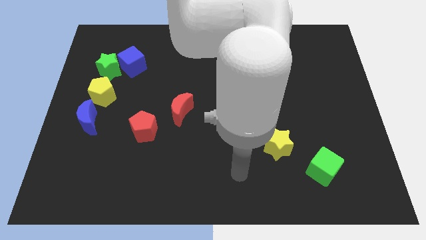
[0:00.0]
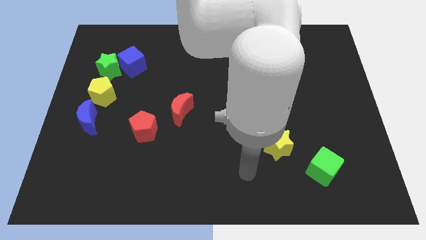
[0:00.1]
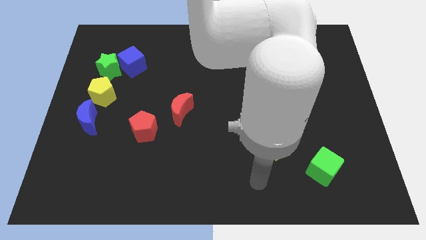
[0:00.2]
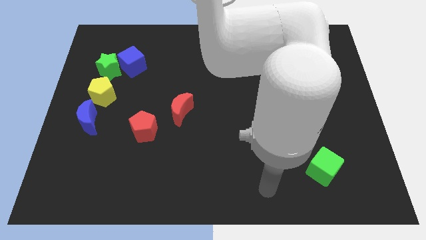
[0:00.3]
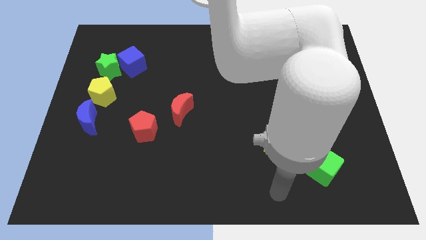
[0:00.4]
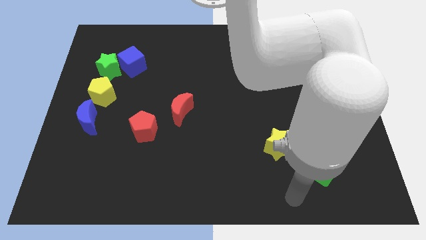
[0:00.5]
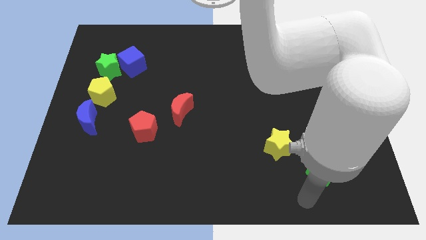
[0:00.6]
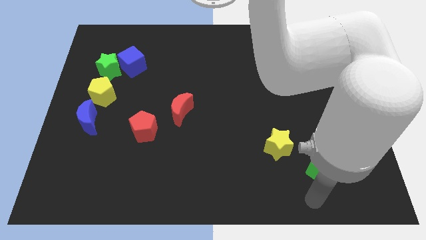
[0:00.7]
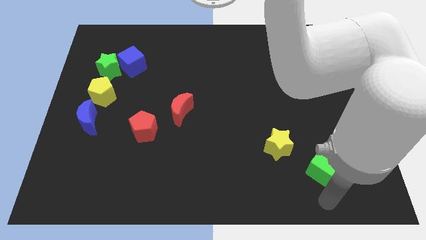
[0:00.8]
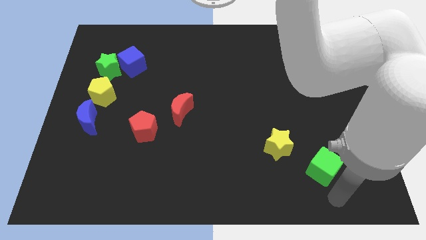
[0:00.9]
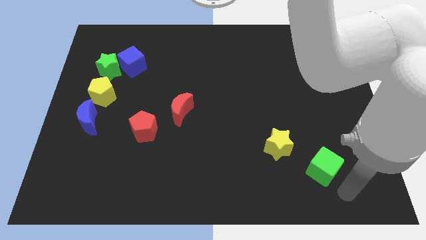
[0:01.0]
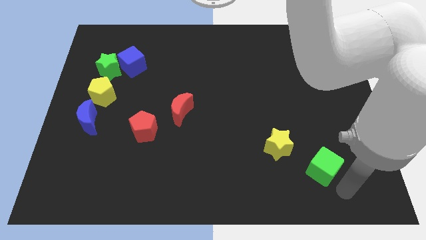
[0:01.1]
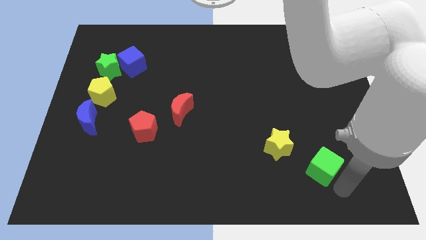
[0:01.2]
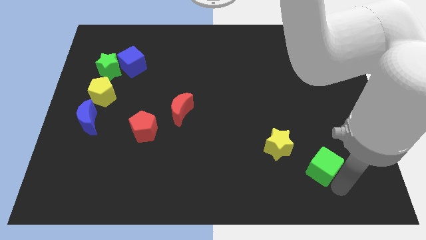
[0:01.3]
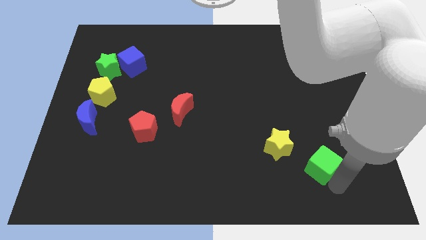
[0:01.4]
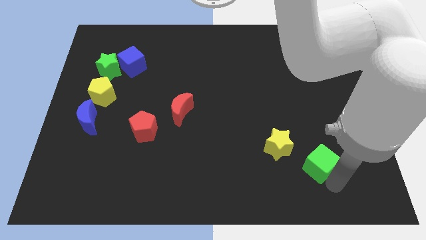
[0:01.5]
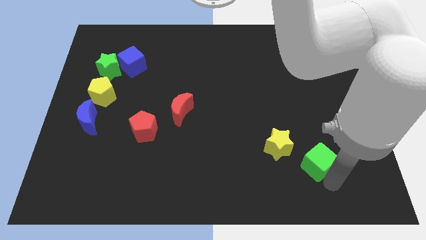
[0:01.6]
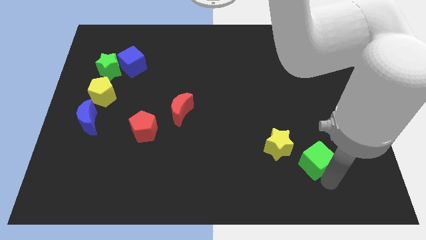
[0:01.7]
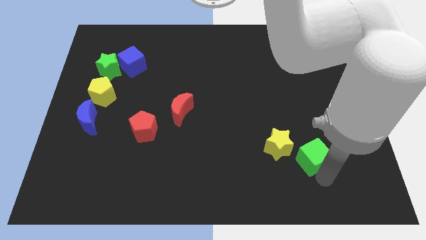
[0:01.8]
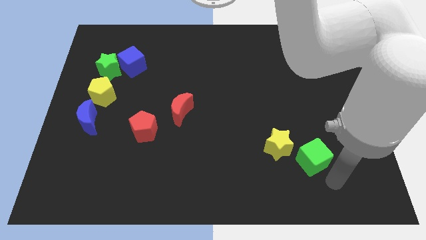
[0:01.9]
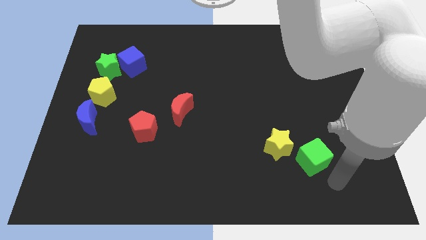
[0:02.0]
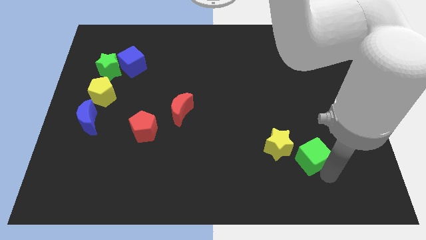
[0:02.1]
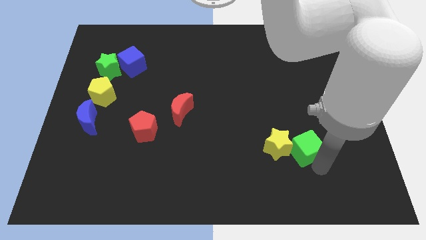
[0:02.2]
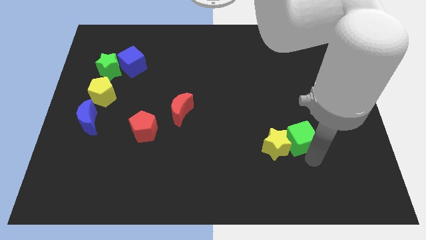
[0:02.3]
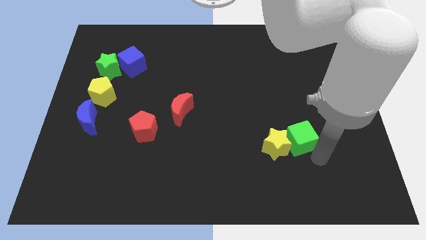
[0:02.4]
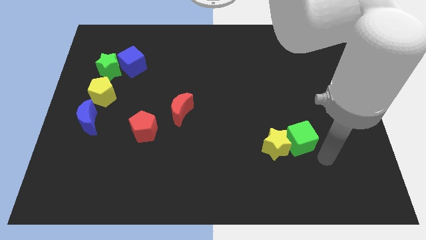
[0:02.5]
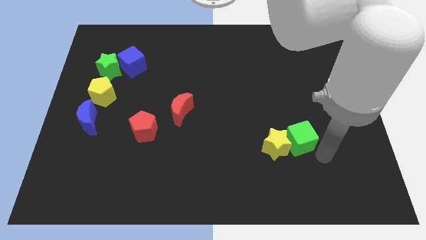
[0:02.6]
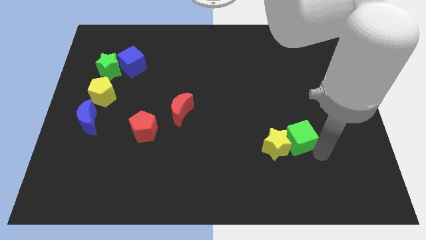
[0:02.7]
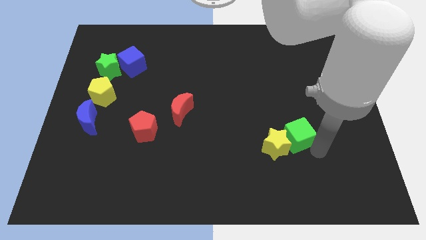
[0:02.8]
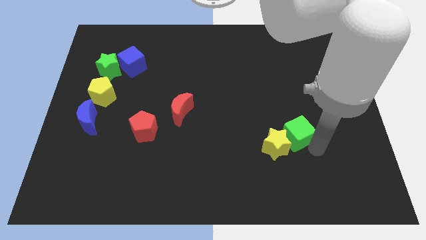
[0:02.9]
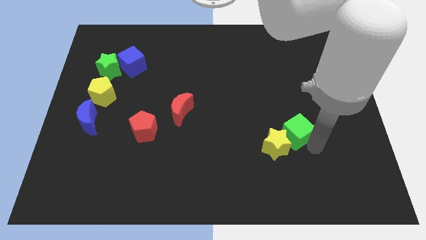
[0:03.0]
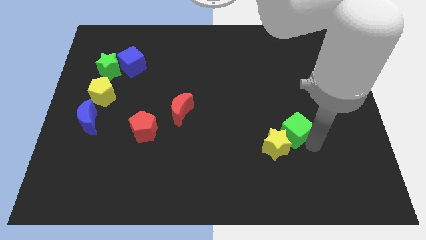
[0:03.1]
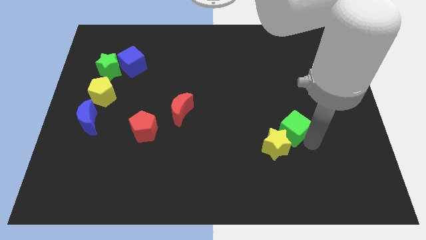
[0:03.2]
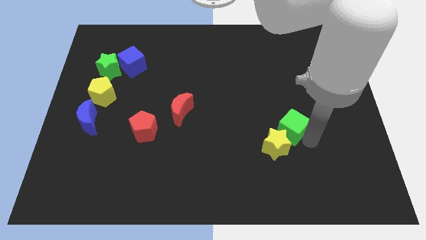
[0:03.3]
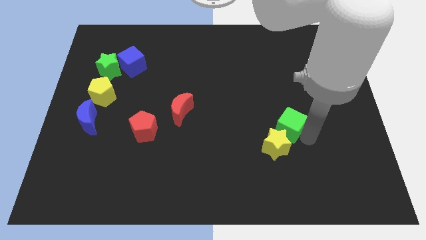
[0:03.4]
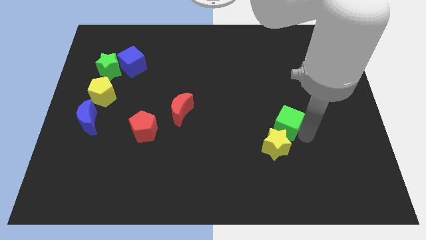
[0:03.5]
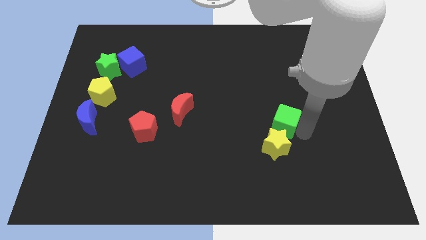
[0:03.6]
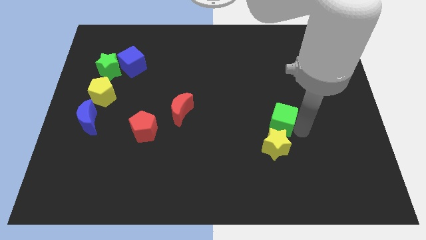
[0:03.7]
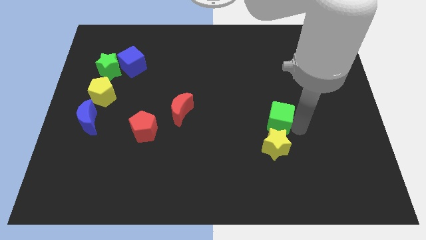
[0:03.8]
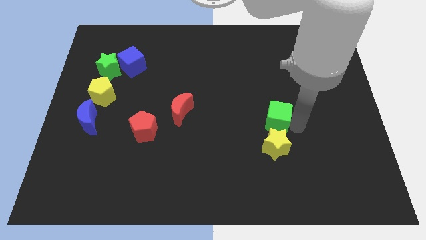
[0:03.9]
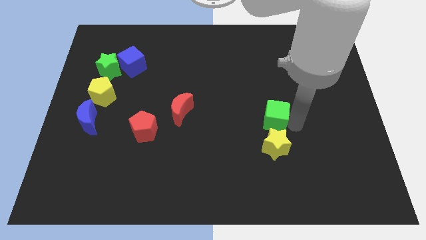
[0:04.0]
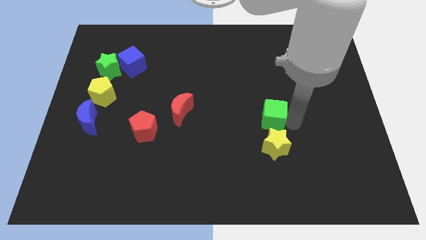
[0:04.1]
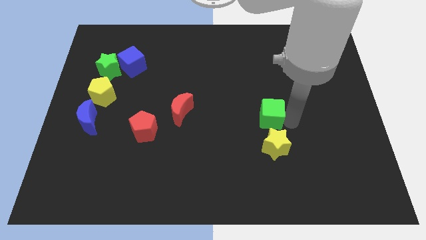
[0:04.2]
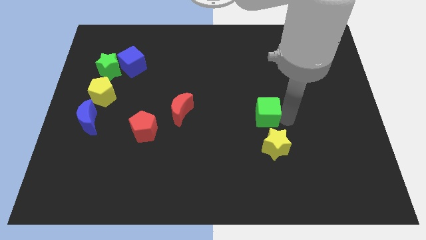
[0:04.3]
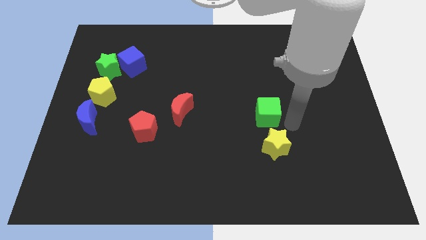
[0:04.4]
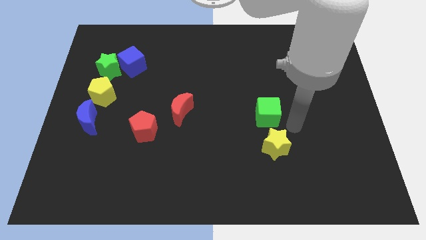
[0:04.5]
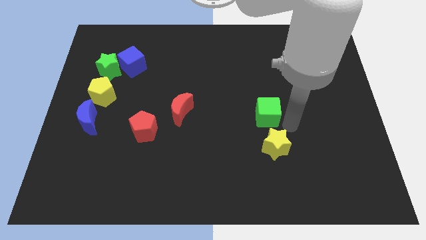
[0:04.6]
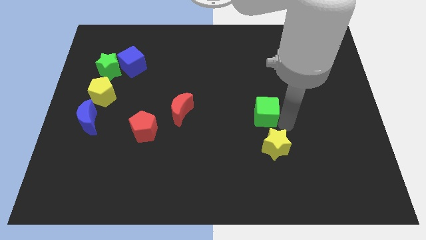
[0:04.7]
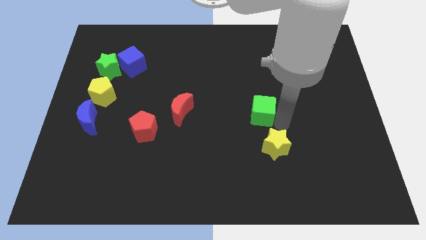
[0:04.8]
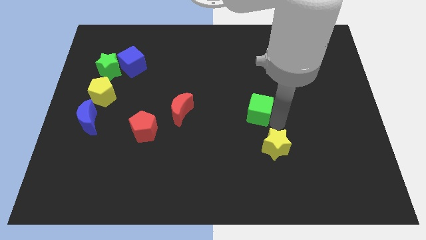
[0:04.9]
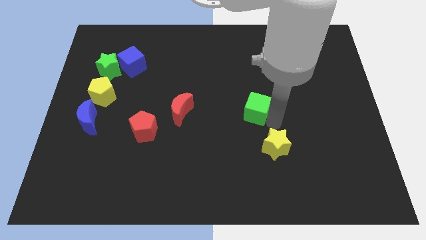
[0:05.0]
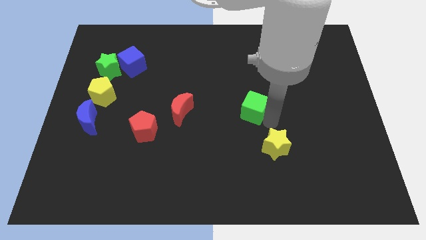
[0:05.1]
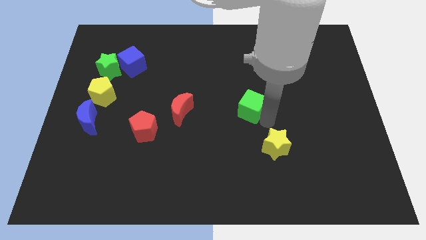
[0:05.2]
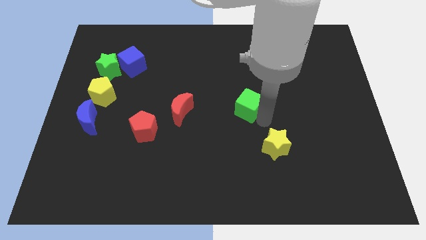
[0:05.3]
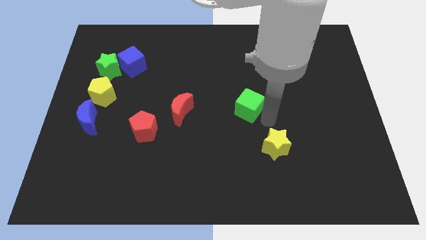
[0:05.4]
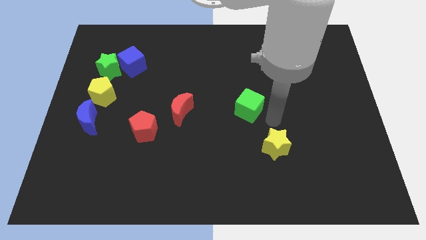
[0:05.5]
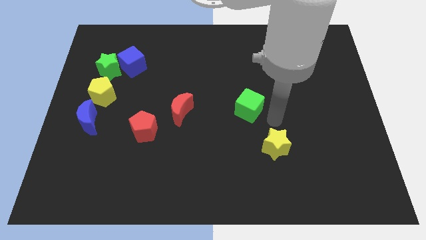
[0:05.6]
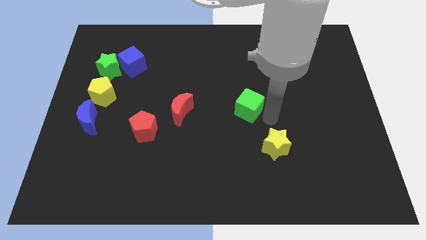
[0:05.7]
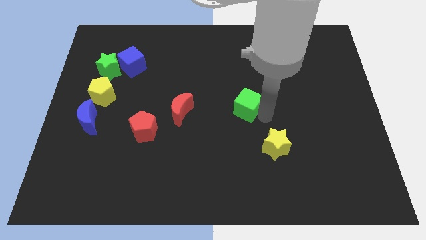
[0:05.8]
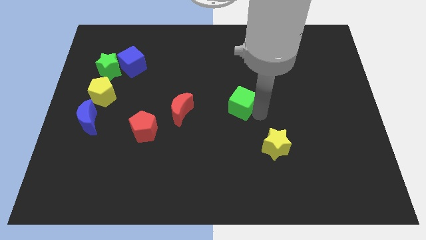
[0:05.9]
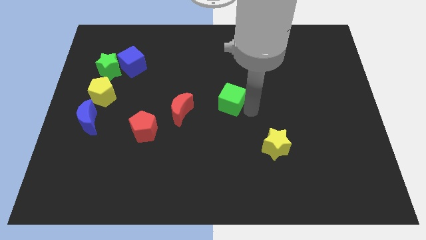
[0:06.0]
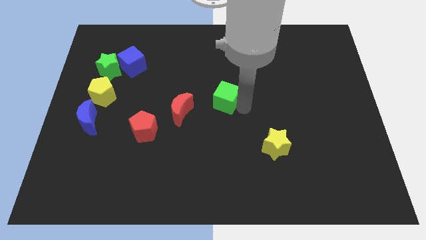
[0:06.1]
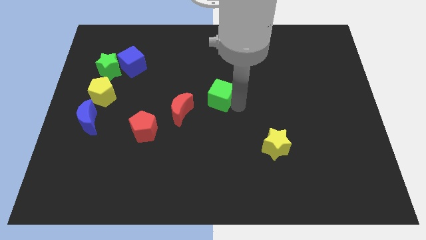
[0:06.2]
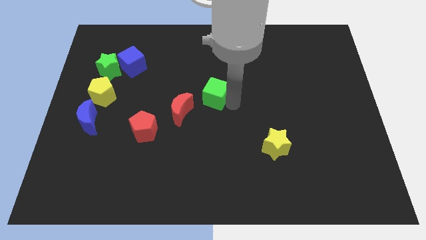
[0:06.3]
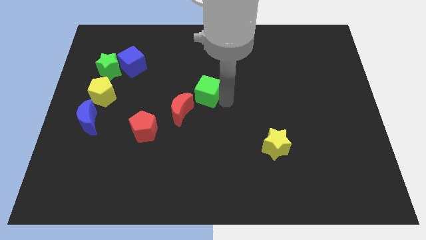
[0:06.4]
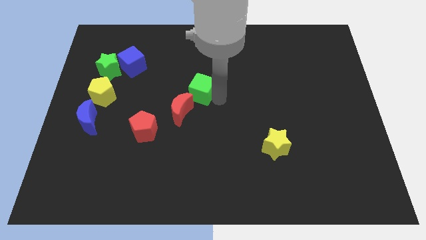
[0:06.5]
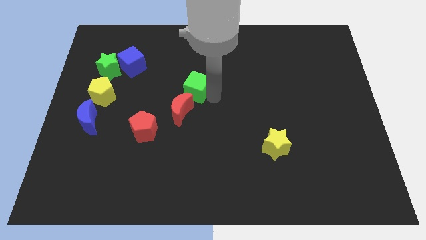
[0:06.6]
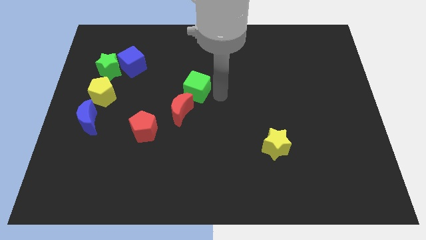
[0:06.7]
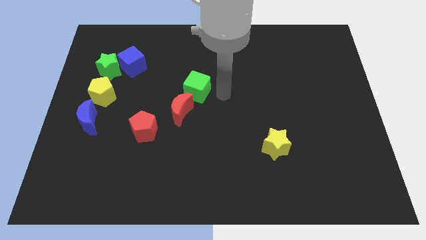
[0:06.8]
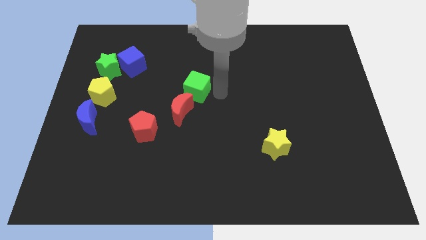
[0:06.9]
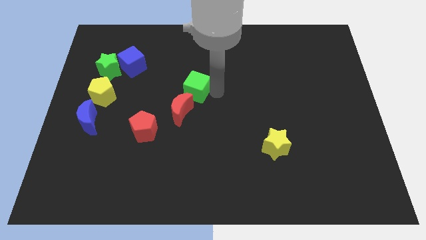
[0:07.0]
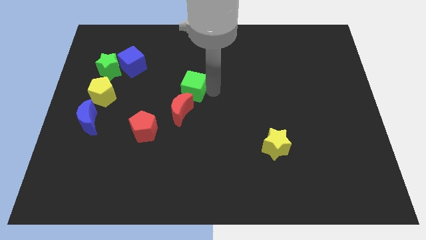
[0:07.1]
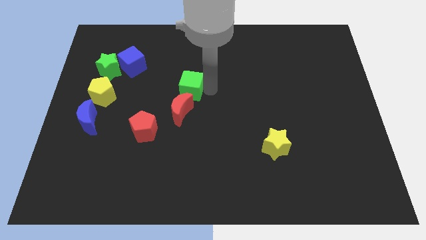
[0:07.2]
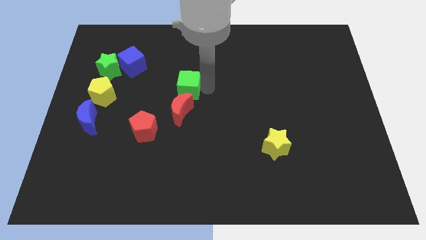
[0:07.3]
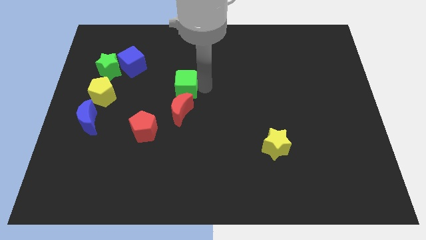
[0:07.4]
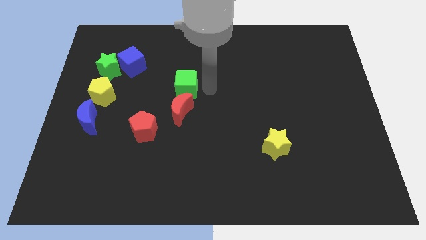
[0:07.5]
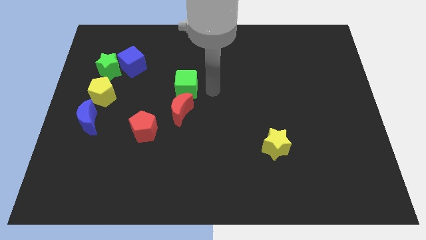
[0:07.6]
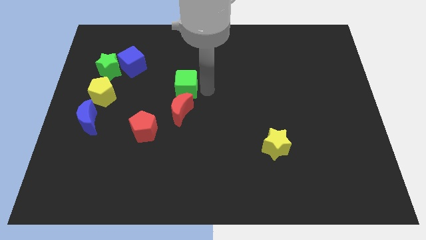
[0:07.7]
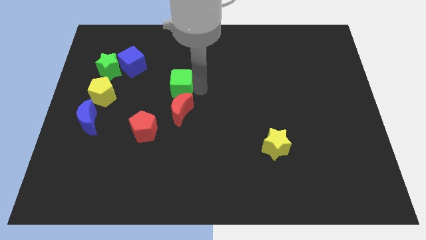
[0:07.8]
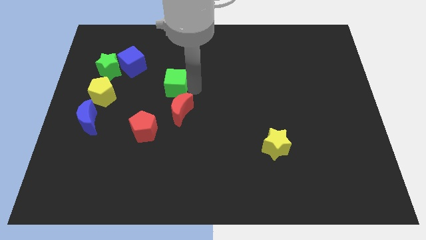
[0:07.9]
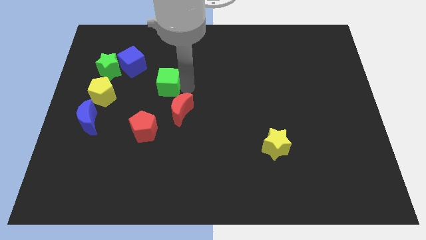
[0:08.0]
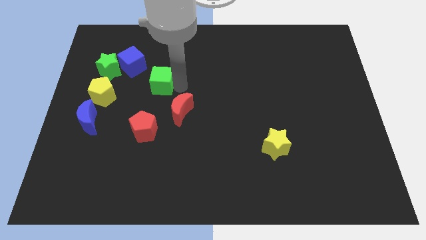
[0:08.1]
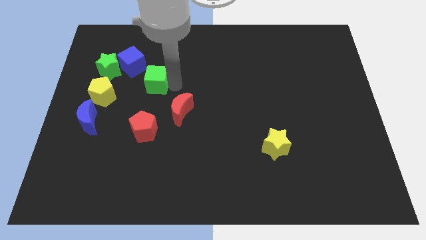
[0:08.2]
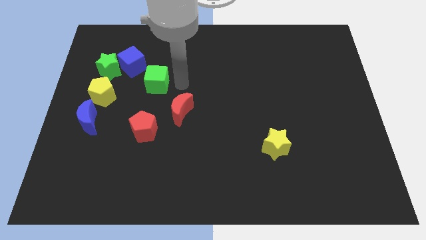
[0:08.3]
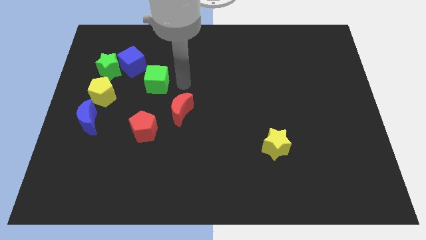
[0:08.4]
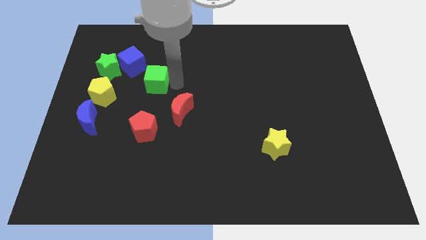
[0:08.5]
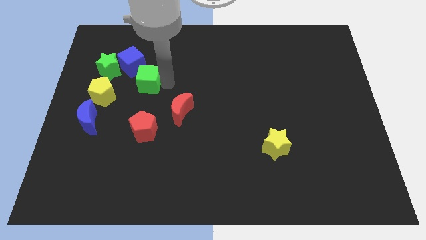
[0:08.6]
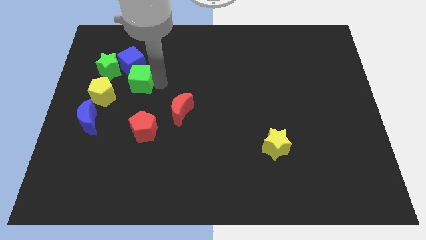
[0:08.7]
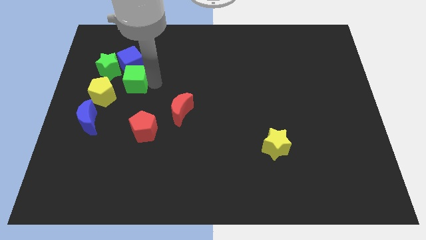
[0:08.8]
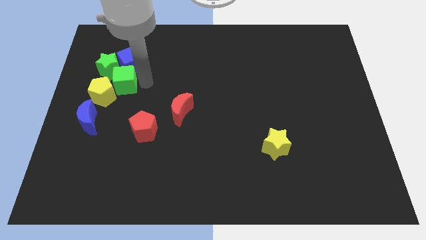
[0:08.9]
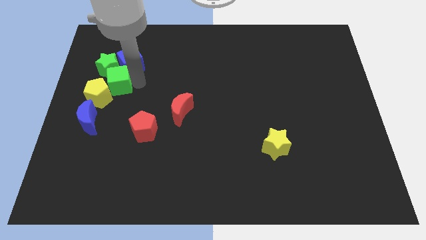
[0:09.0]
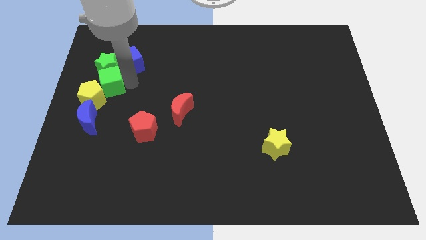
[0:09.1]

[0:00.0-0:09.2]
push the green cube above the blue moon
